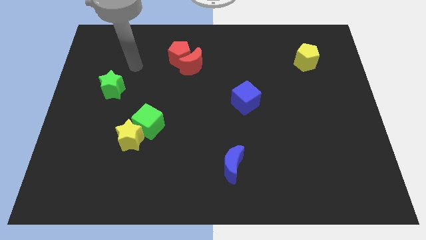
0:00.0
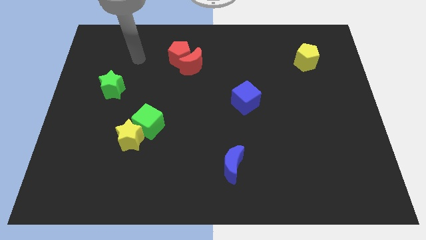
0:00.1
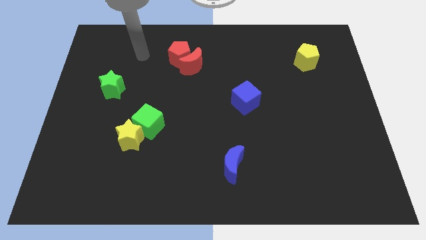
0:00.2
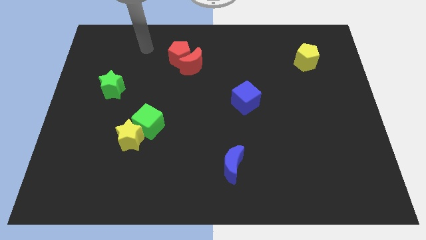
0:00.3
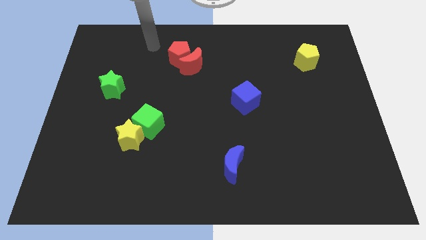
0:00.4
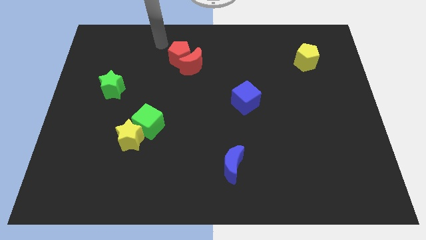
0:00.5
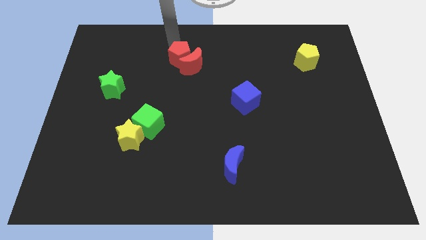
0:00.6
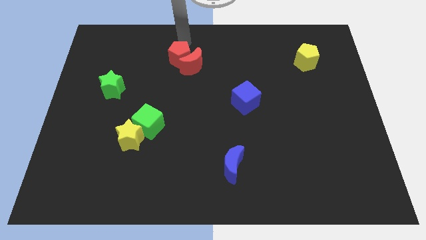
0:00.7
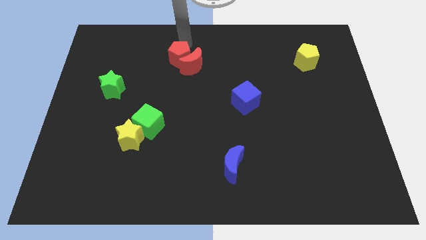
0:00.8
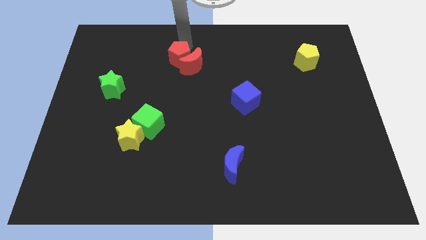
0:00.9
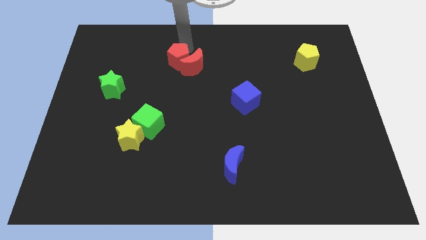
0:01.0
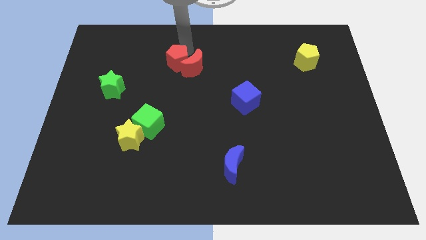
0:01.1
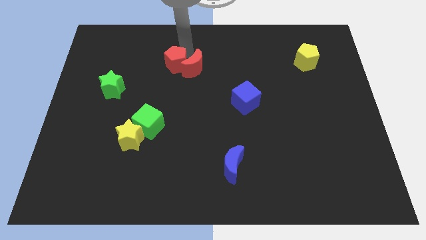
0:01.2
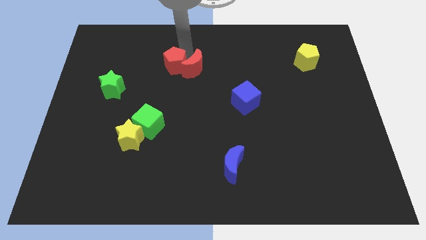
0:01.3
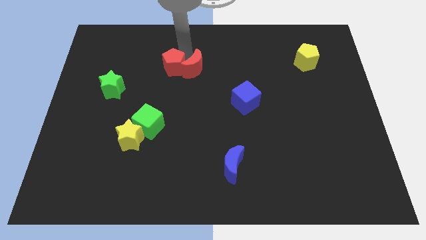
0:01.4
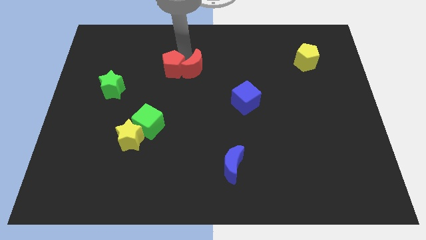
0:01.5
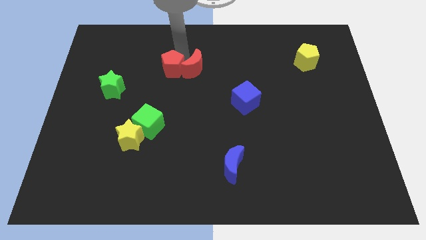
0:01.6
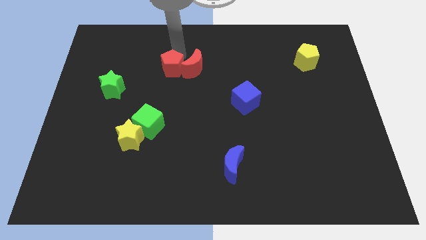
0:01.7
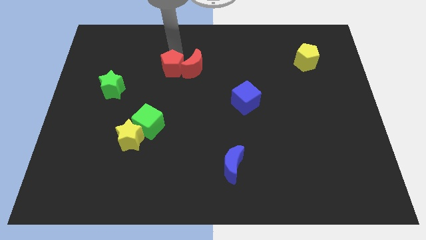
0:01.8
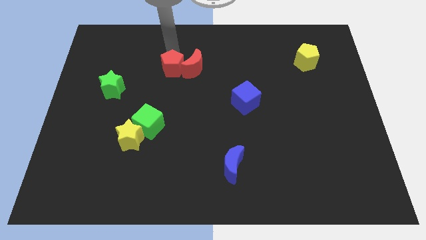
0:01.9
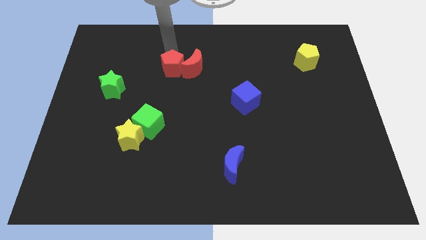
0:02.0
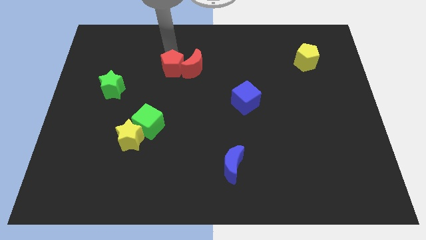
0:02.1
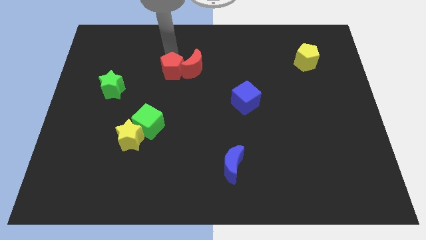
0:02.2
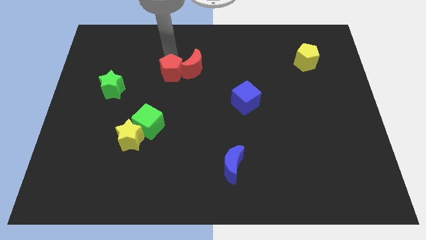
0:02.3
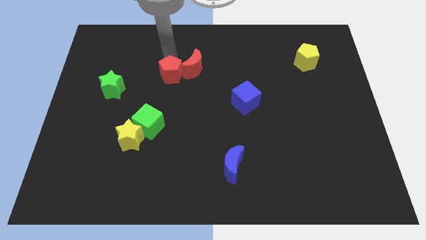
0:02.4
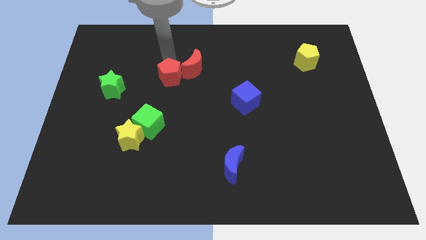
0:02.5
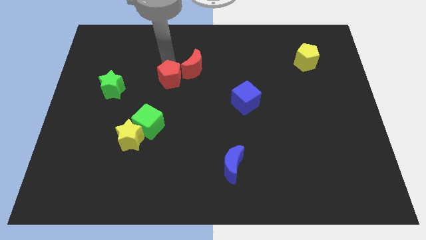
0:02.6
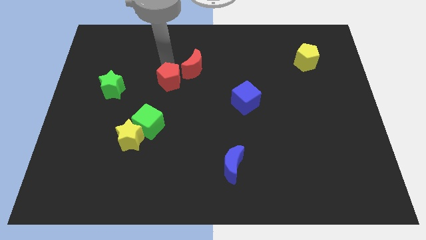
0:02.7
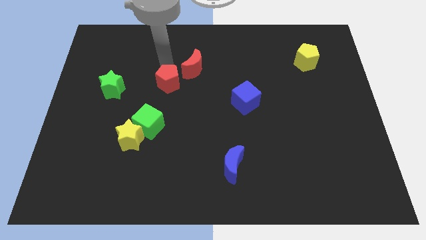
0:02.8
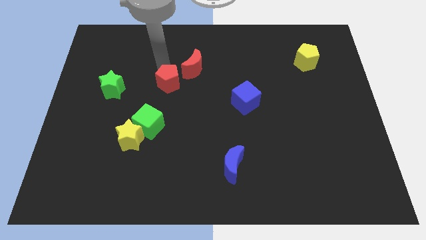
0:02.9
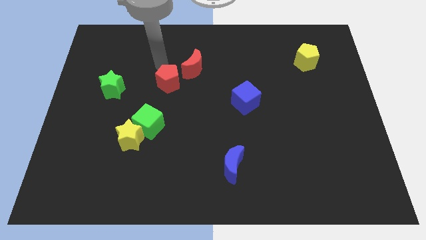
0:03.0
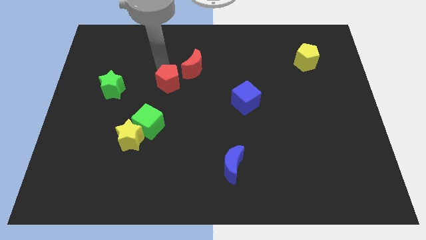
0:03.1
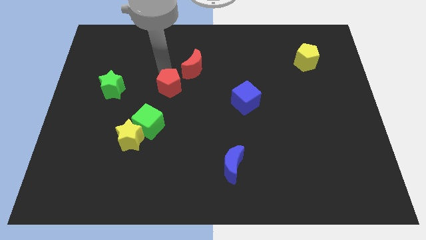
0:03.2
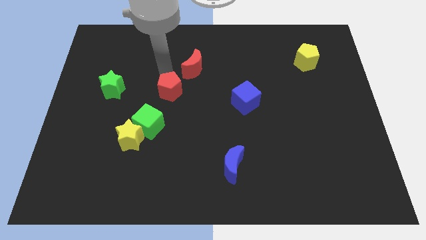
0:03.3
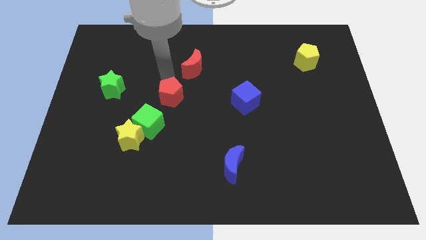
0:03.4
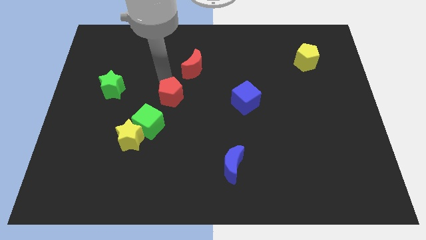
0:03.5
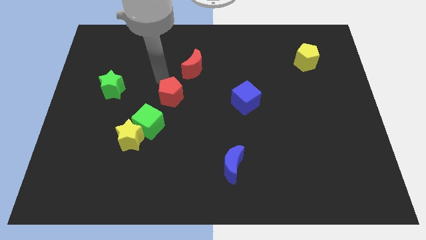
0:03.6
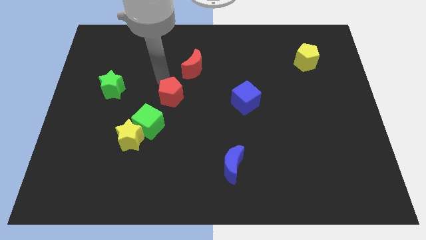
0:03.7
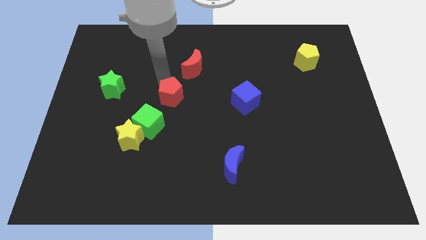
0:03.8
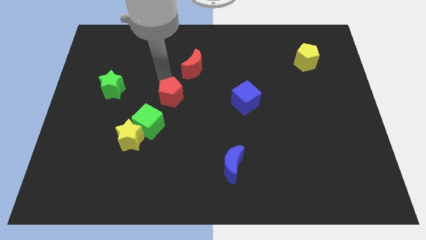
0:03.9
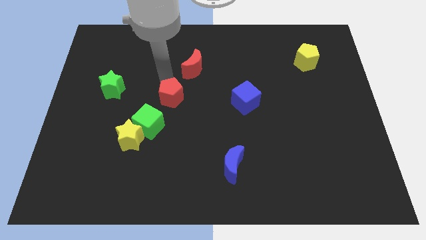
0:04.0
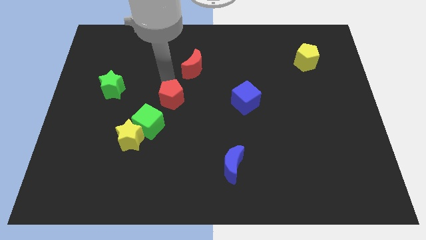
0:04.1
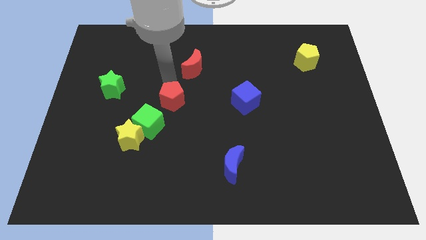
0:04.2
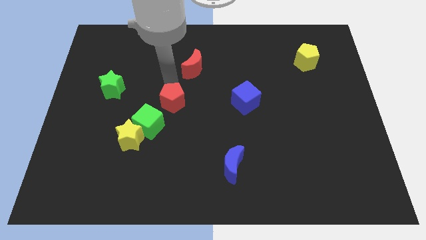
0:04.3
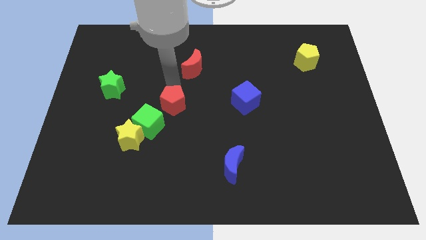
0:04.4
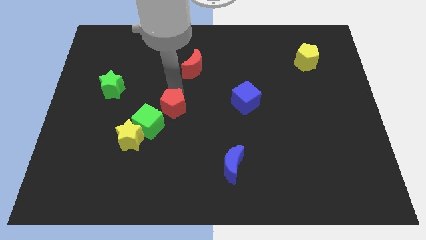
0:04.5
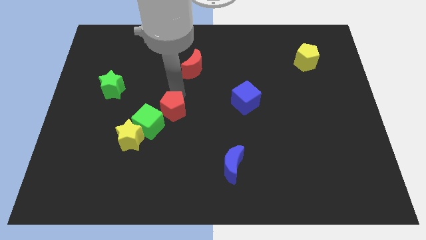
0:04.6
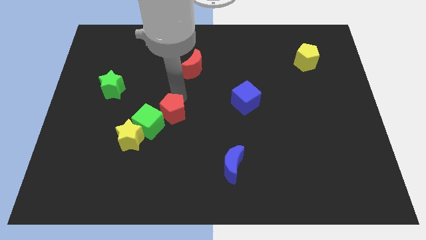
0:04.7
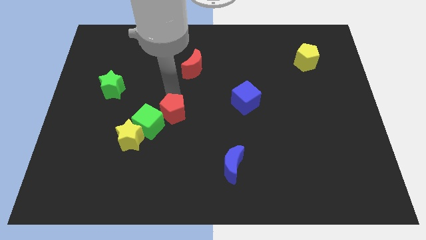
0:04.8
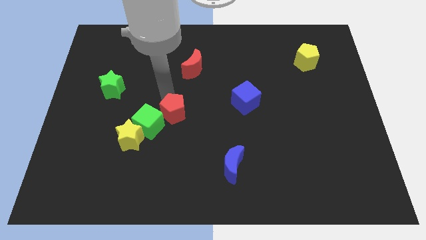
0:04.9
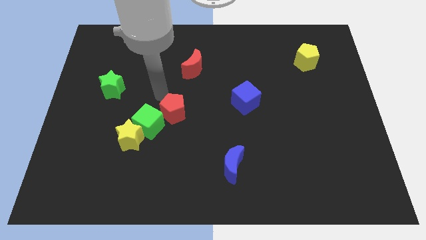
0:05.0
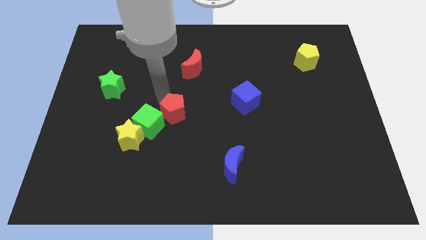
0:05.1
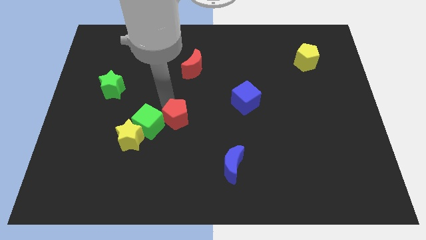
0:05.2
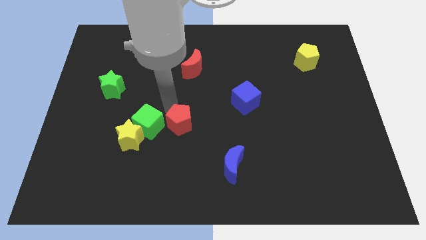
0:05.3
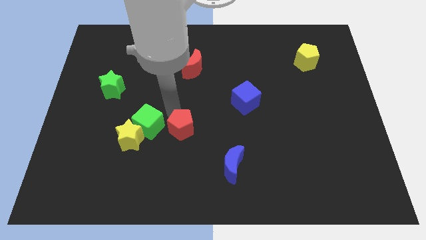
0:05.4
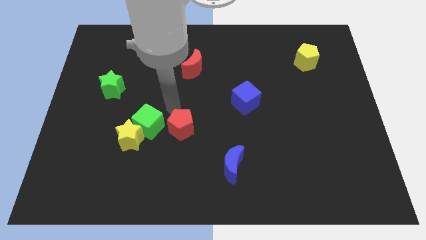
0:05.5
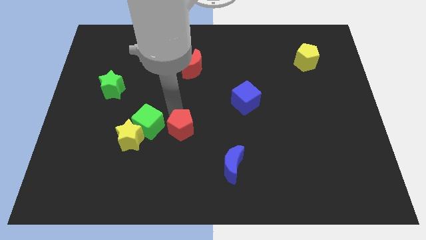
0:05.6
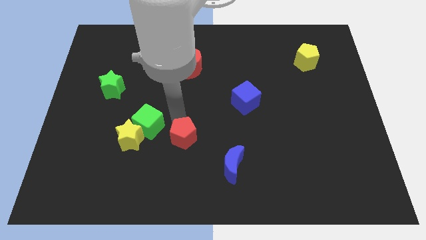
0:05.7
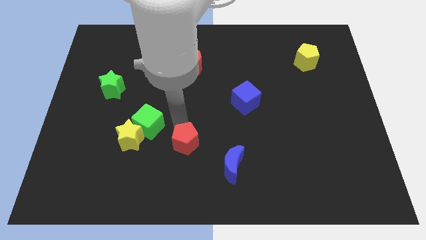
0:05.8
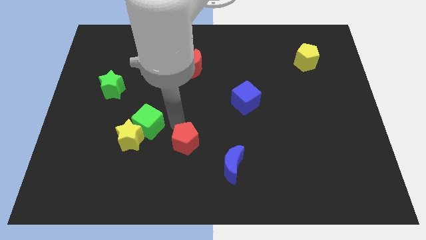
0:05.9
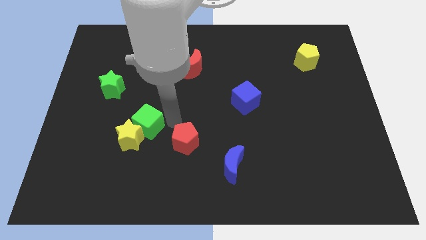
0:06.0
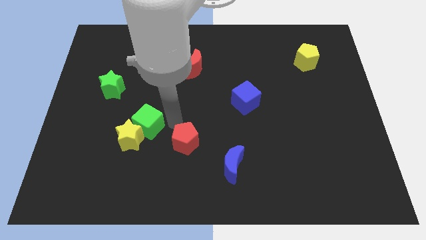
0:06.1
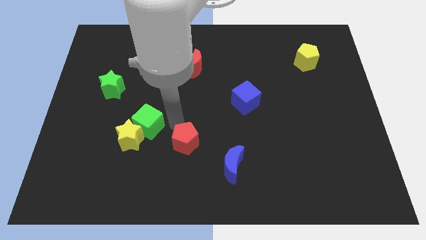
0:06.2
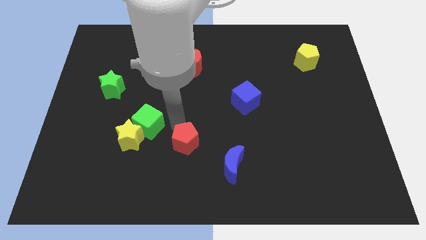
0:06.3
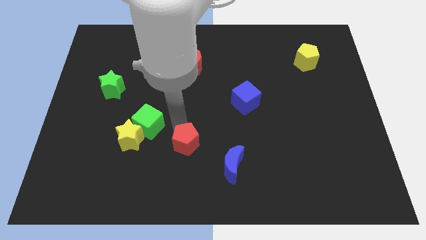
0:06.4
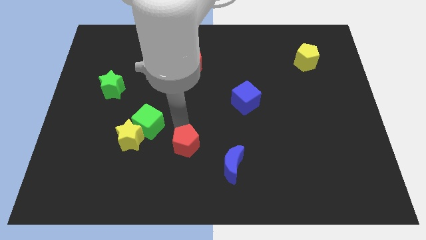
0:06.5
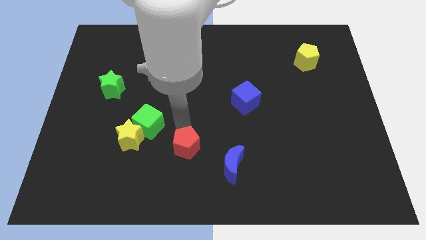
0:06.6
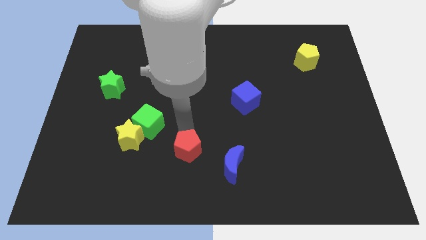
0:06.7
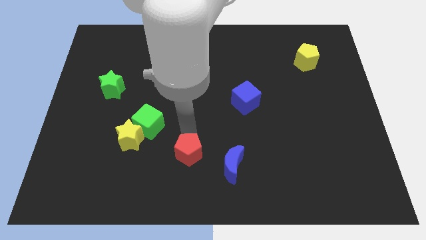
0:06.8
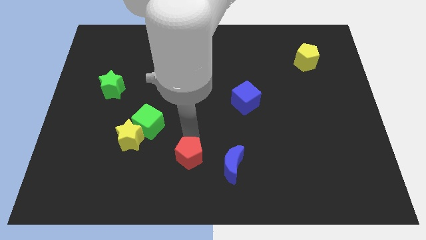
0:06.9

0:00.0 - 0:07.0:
push the red pentagon to the bottom side
